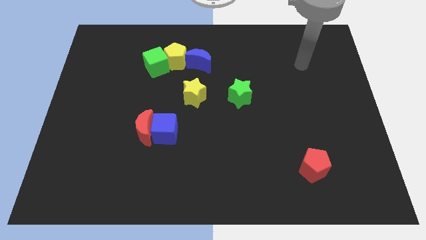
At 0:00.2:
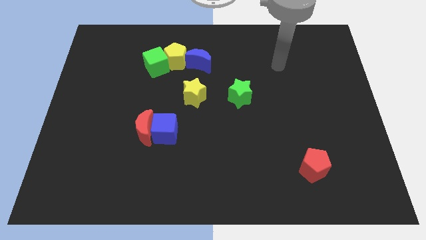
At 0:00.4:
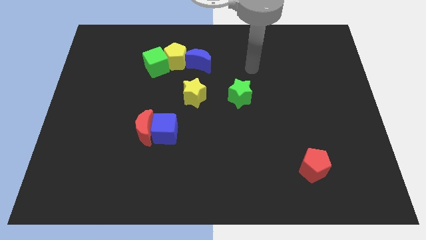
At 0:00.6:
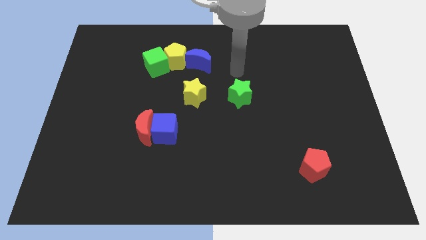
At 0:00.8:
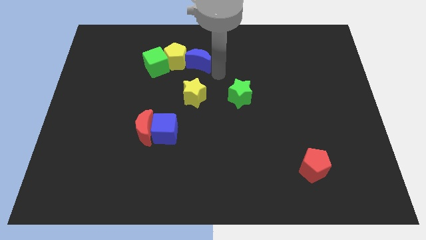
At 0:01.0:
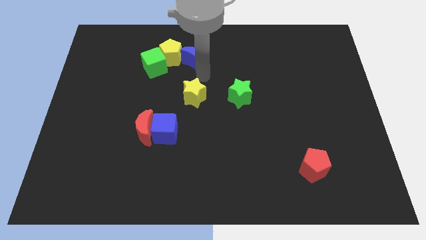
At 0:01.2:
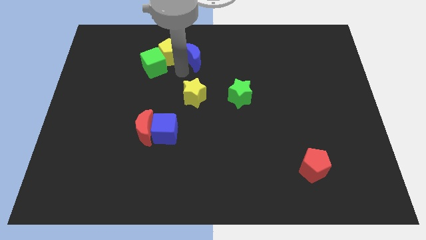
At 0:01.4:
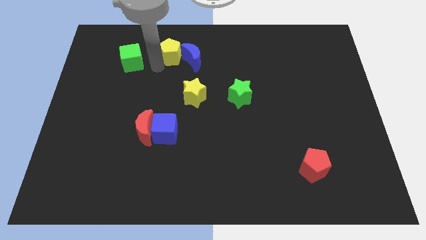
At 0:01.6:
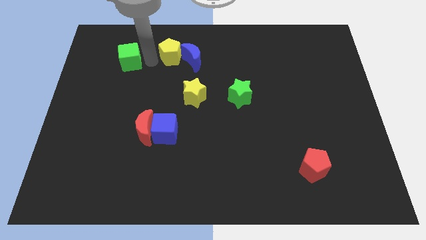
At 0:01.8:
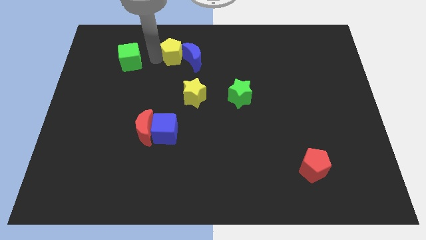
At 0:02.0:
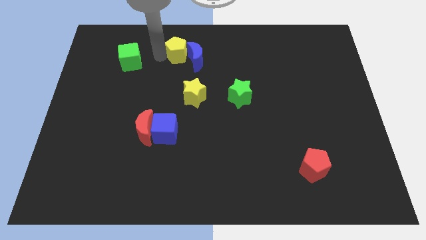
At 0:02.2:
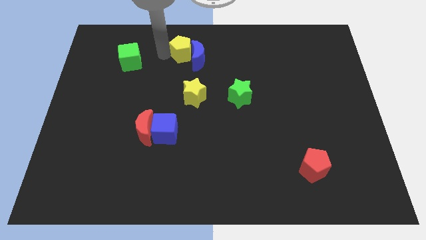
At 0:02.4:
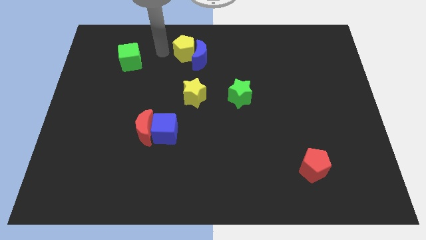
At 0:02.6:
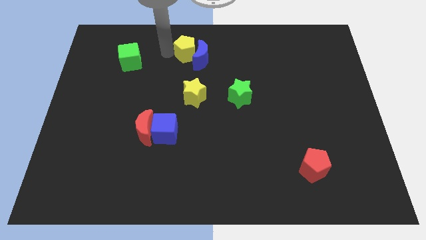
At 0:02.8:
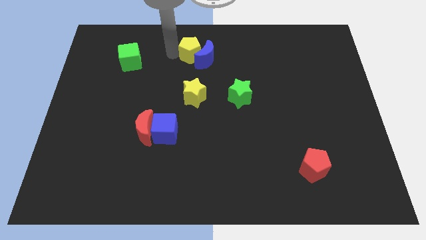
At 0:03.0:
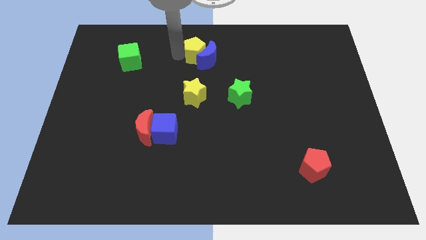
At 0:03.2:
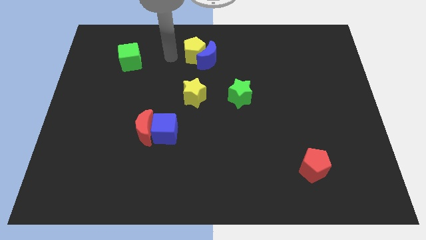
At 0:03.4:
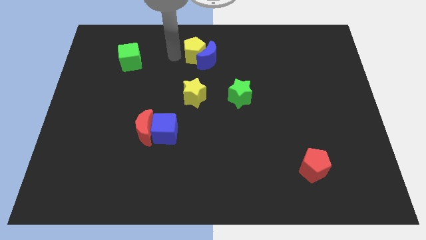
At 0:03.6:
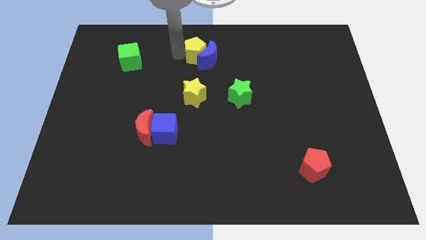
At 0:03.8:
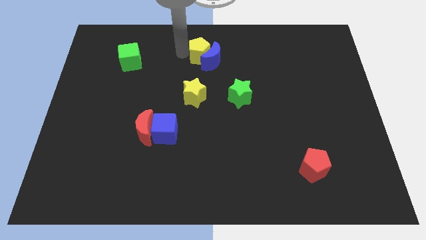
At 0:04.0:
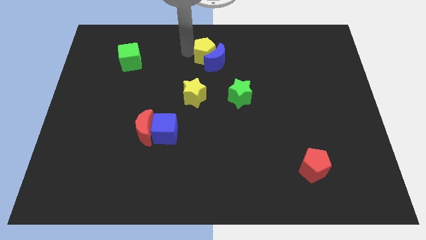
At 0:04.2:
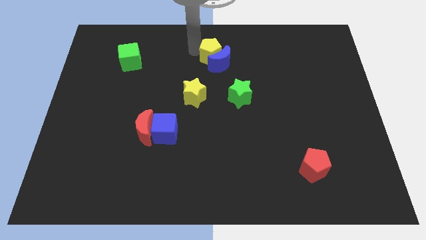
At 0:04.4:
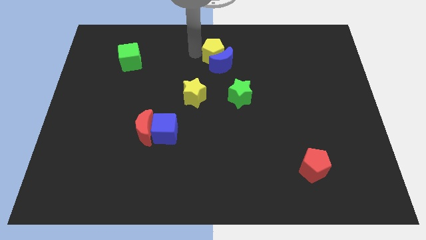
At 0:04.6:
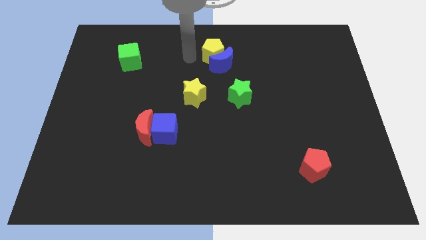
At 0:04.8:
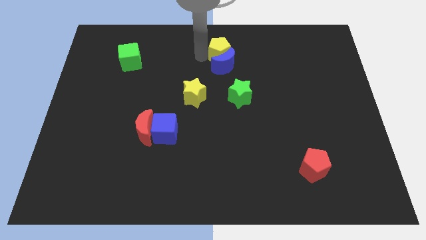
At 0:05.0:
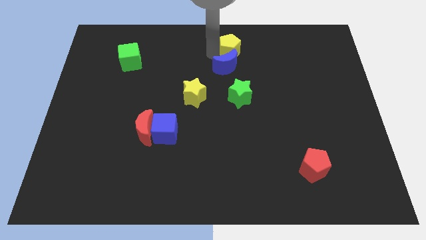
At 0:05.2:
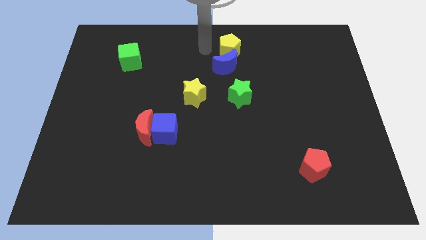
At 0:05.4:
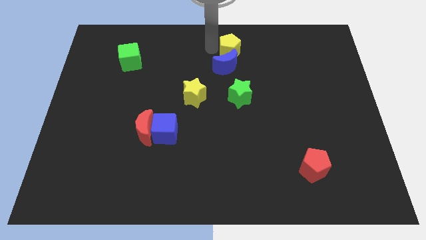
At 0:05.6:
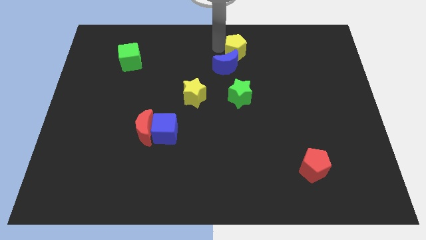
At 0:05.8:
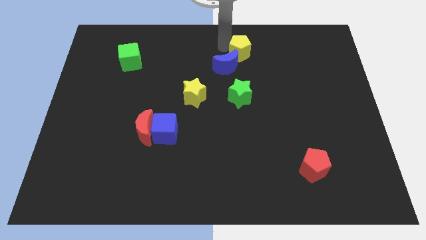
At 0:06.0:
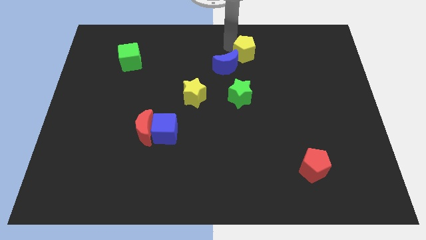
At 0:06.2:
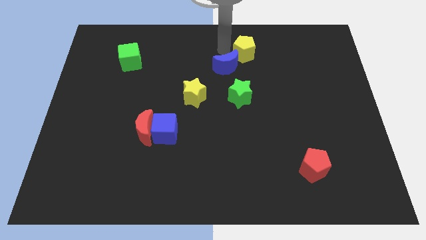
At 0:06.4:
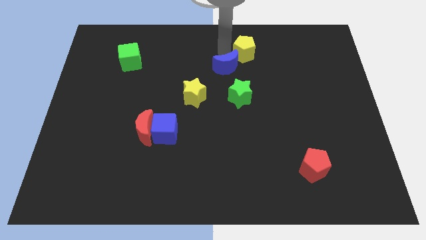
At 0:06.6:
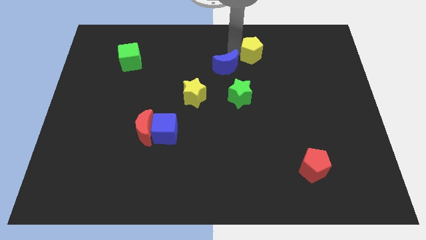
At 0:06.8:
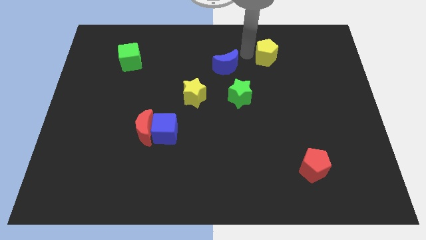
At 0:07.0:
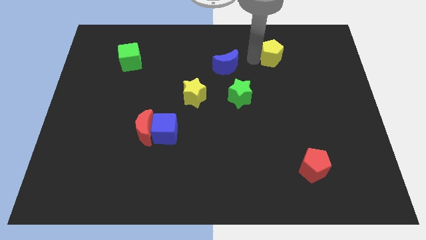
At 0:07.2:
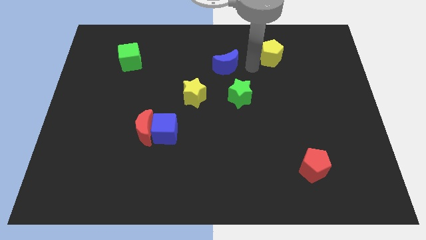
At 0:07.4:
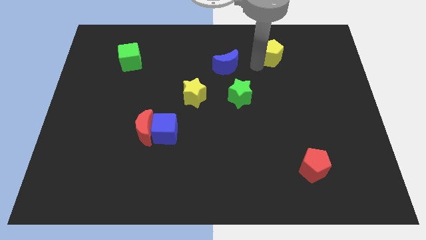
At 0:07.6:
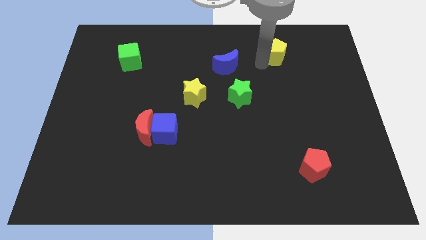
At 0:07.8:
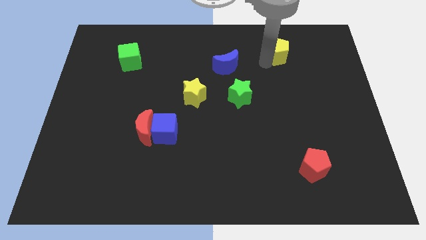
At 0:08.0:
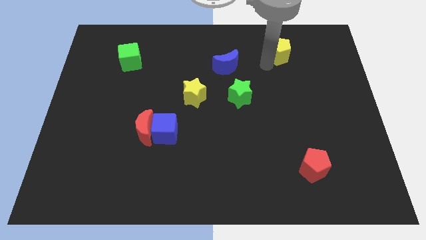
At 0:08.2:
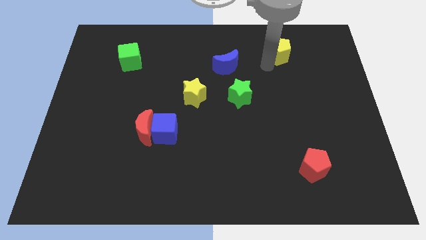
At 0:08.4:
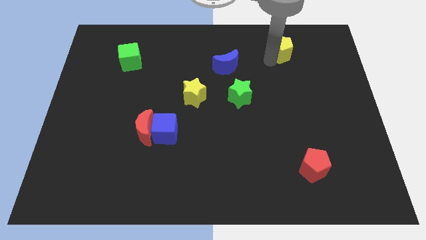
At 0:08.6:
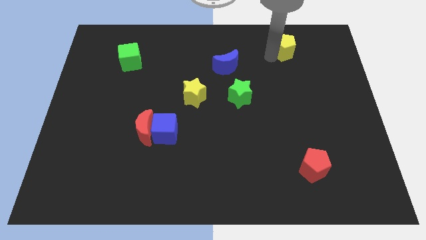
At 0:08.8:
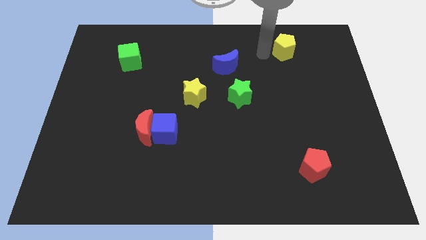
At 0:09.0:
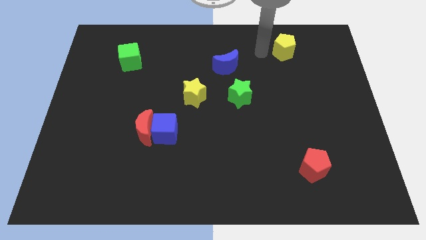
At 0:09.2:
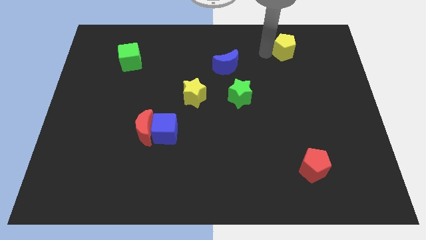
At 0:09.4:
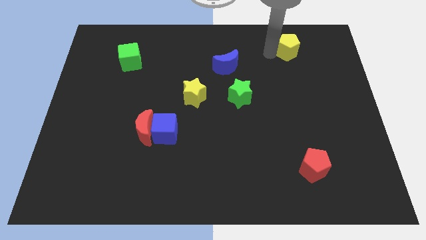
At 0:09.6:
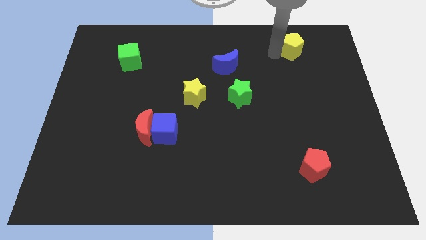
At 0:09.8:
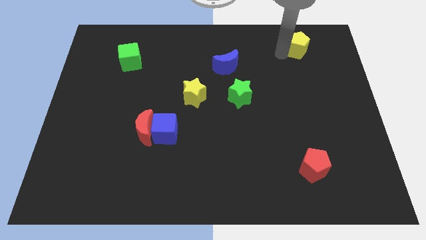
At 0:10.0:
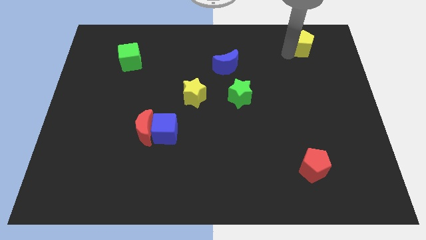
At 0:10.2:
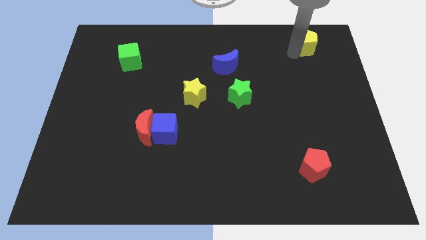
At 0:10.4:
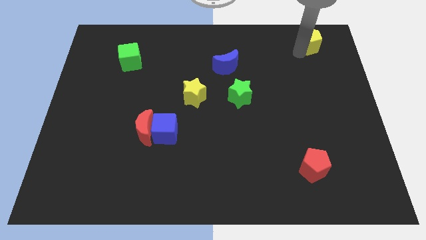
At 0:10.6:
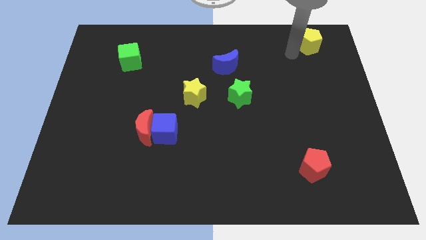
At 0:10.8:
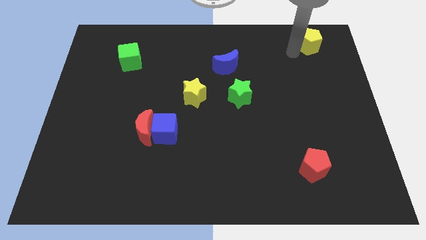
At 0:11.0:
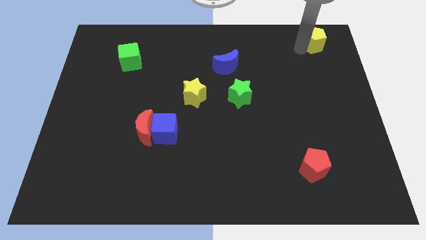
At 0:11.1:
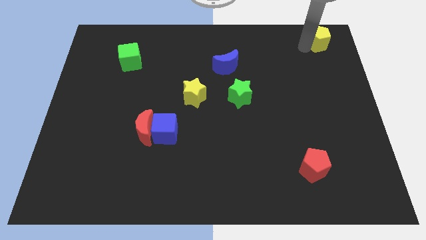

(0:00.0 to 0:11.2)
move the yellow pentagon to the top right

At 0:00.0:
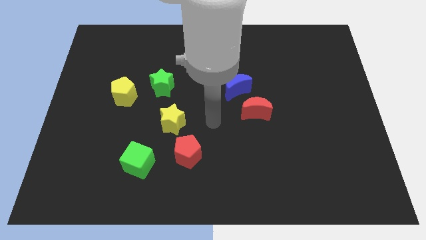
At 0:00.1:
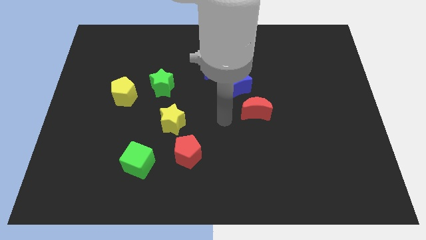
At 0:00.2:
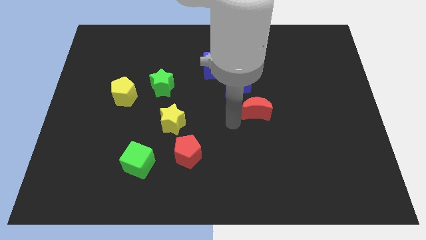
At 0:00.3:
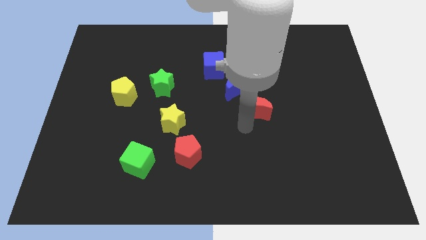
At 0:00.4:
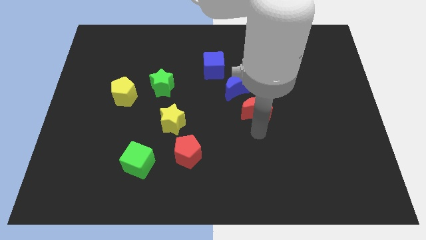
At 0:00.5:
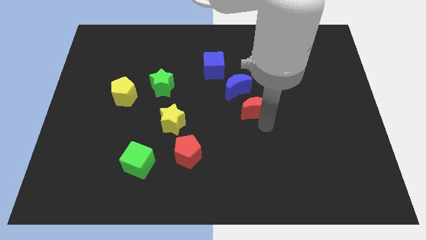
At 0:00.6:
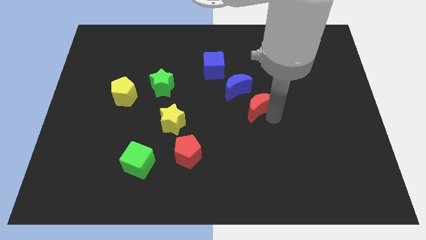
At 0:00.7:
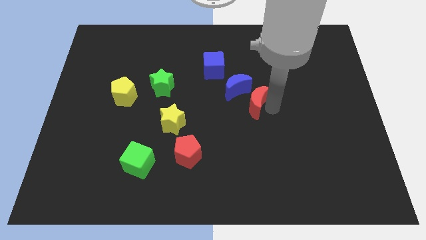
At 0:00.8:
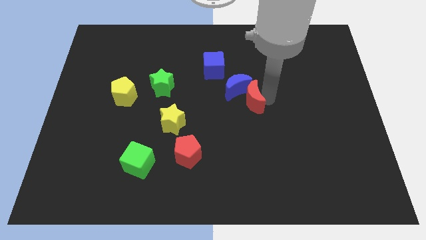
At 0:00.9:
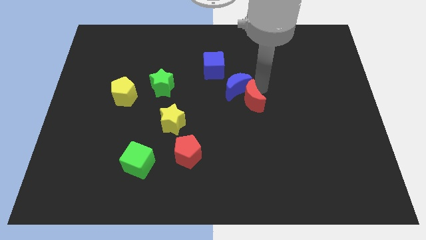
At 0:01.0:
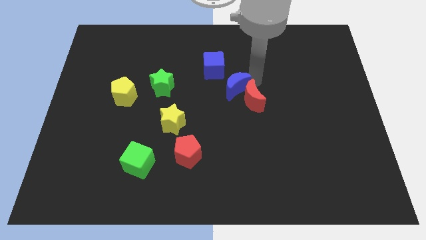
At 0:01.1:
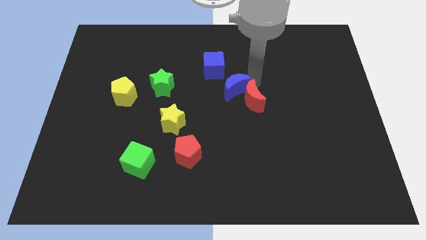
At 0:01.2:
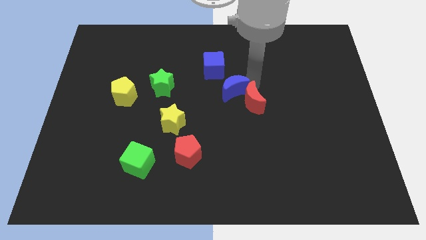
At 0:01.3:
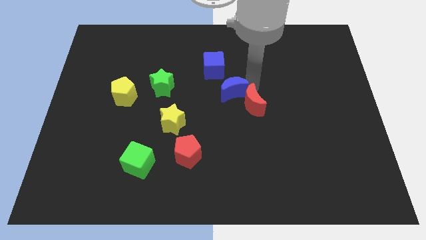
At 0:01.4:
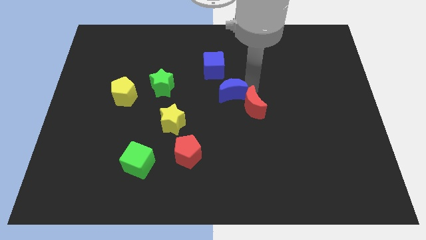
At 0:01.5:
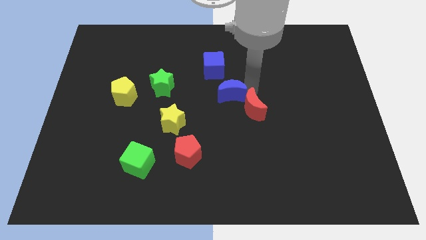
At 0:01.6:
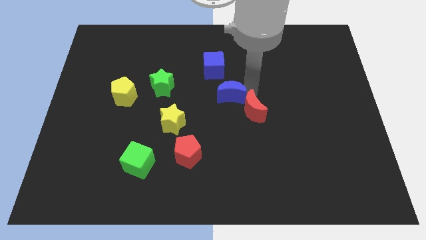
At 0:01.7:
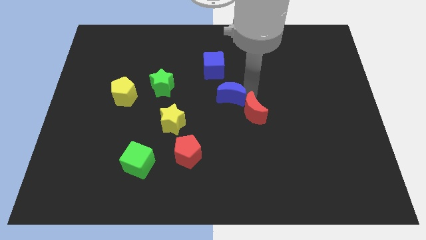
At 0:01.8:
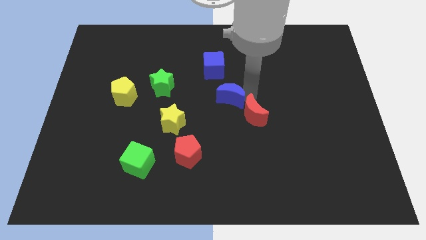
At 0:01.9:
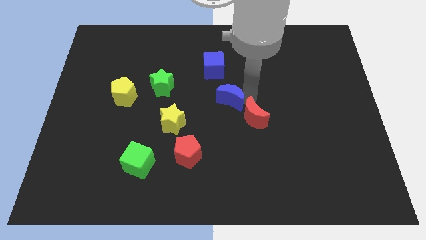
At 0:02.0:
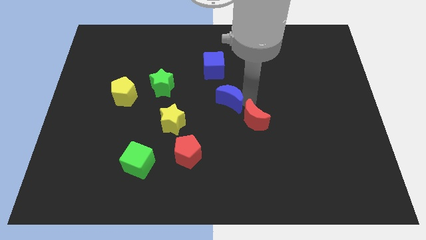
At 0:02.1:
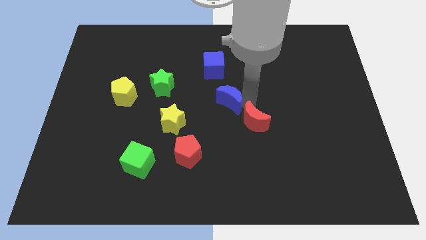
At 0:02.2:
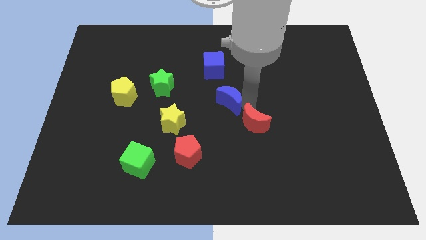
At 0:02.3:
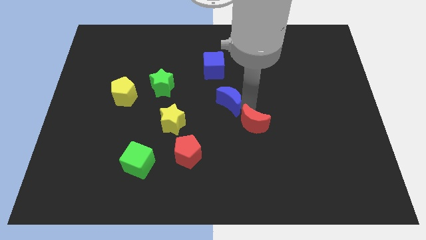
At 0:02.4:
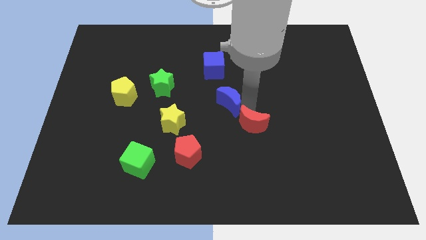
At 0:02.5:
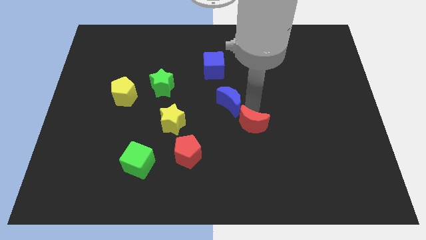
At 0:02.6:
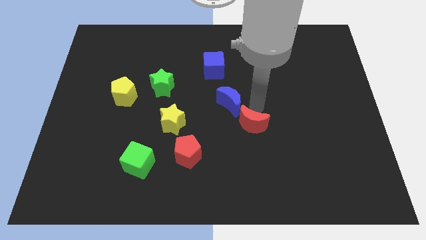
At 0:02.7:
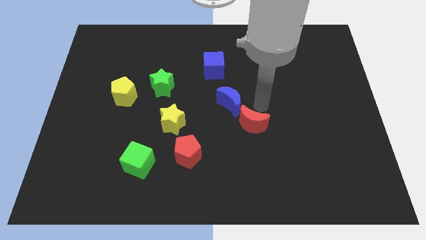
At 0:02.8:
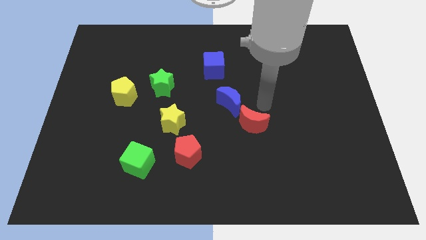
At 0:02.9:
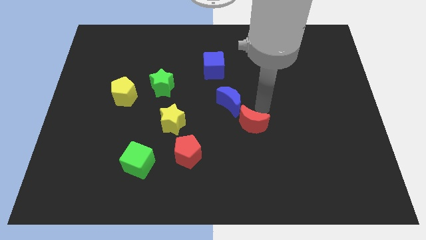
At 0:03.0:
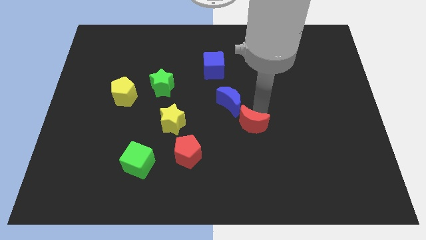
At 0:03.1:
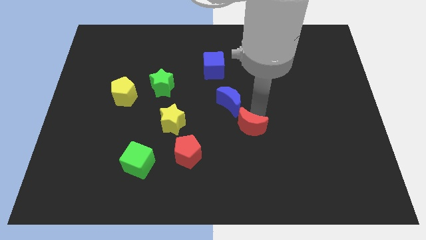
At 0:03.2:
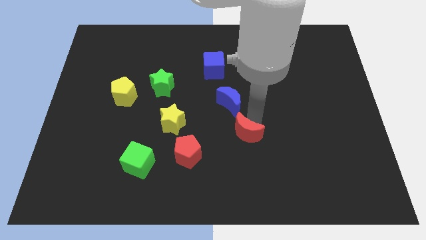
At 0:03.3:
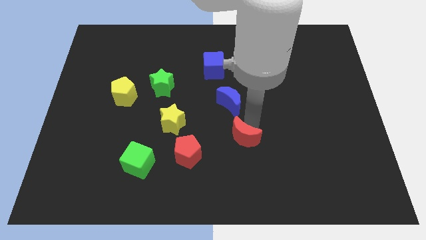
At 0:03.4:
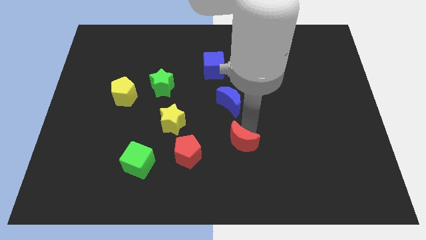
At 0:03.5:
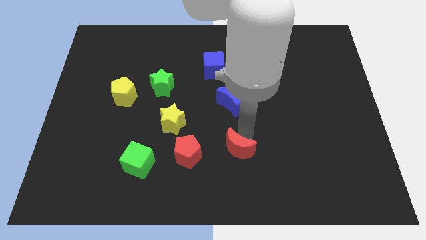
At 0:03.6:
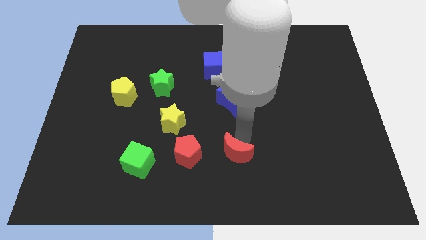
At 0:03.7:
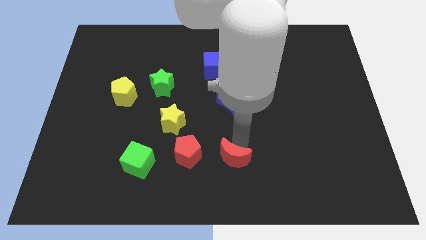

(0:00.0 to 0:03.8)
slide the red moon to the bottom side
